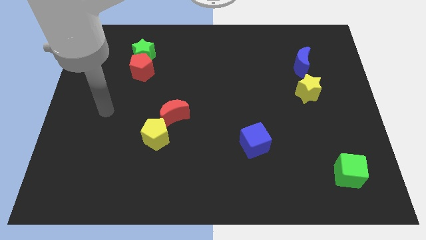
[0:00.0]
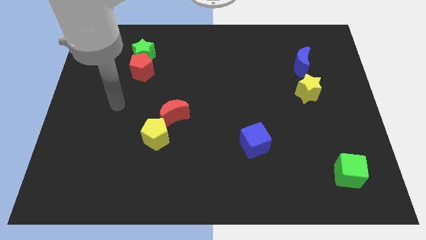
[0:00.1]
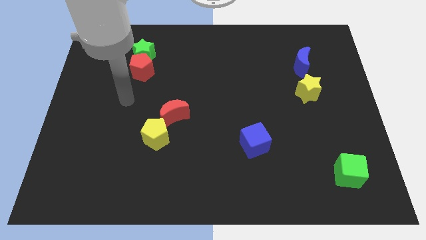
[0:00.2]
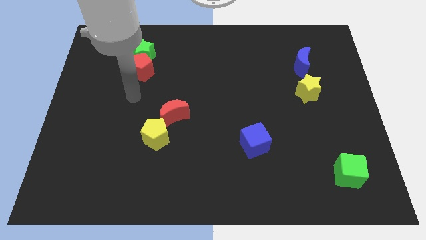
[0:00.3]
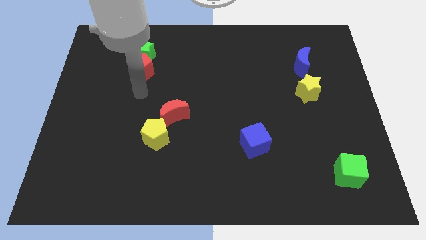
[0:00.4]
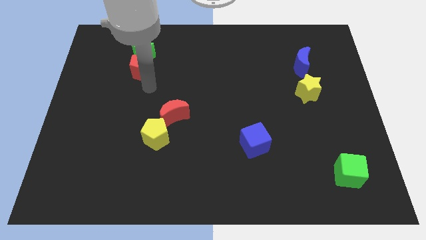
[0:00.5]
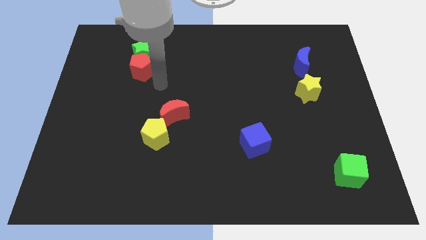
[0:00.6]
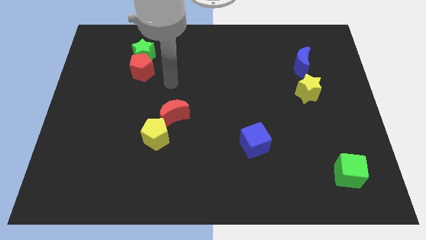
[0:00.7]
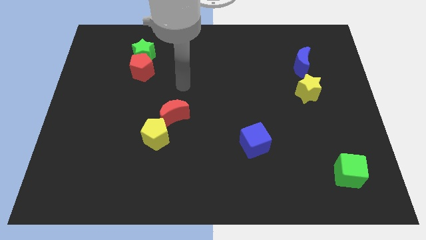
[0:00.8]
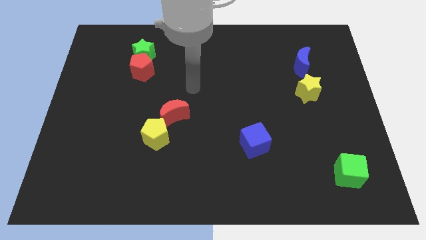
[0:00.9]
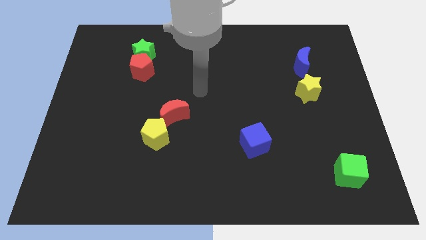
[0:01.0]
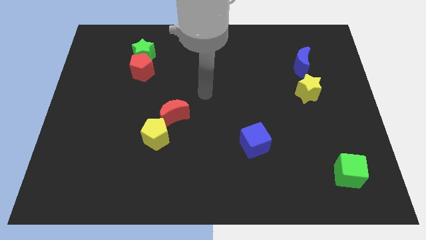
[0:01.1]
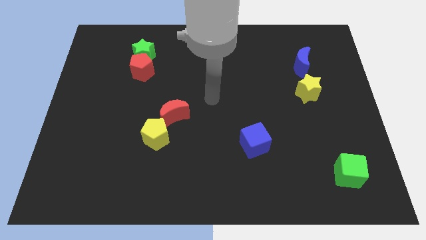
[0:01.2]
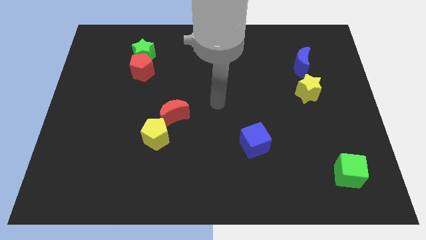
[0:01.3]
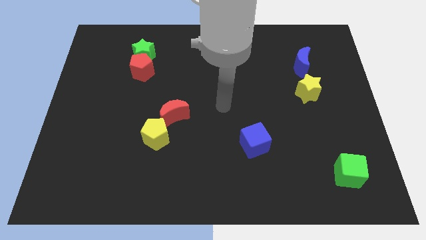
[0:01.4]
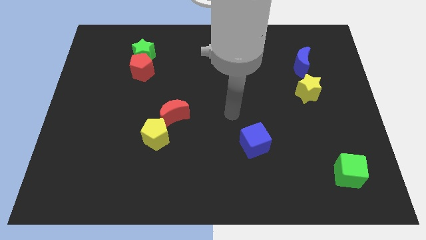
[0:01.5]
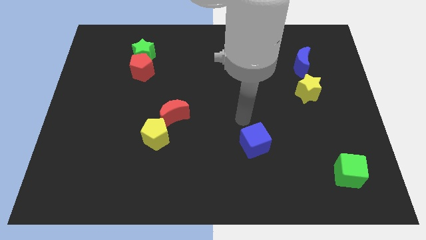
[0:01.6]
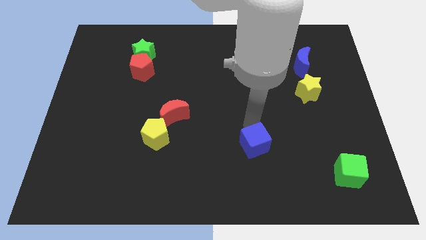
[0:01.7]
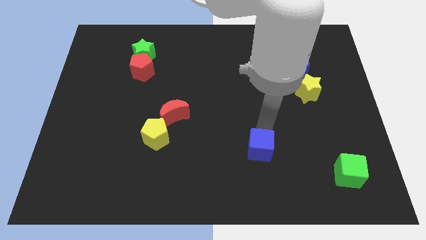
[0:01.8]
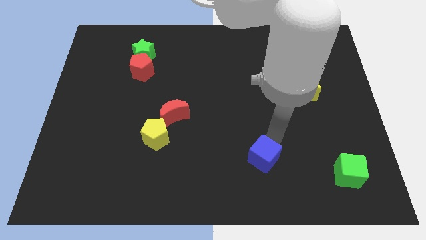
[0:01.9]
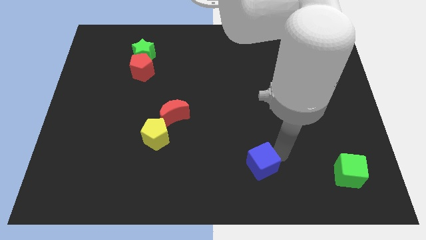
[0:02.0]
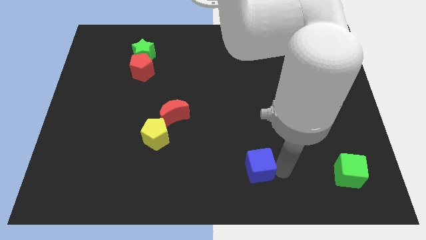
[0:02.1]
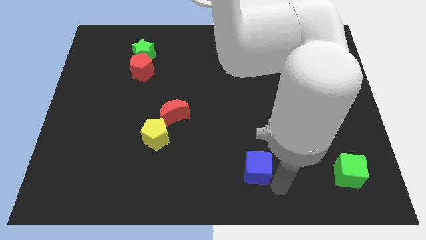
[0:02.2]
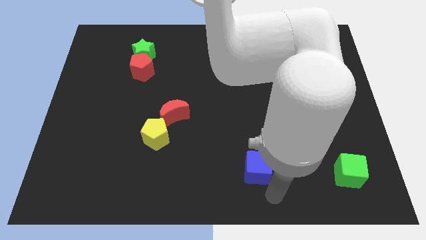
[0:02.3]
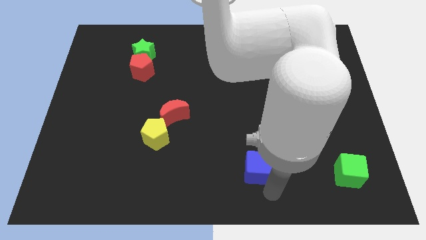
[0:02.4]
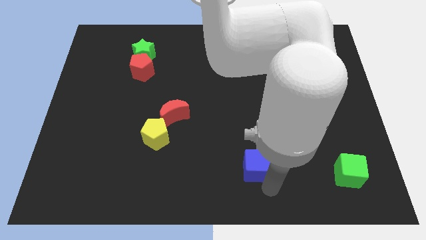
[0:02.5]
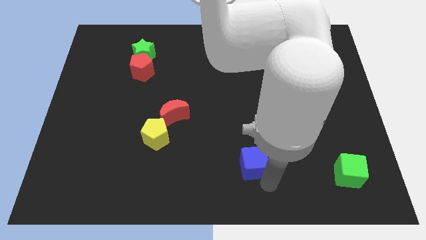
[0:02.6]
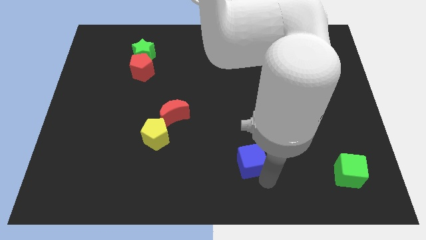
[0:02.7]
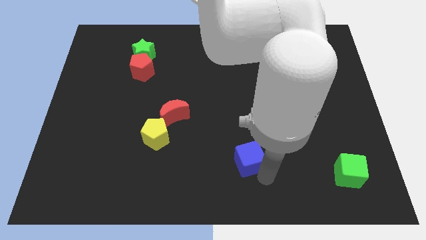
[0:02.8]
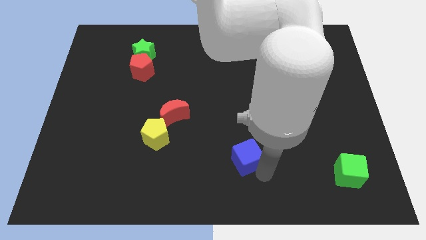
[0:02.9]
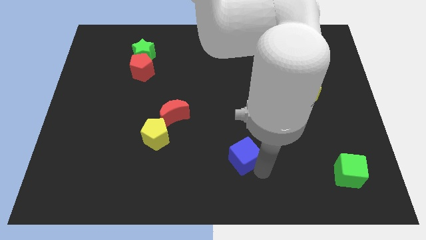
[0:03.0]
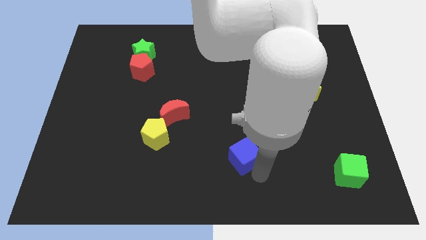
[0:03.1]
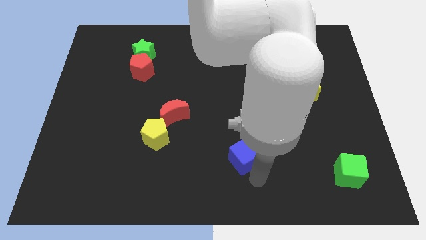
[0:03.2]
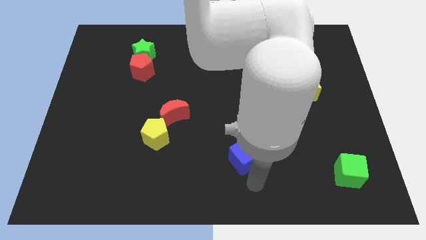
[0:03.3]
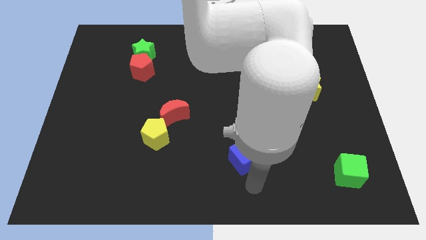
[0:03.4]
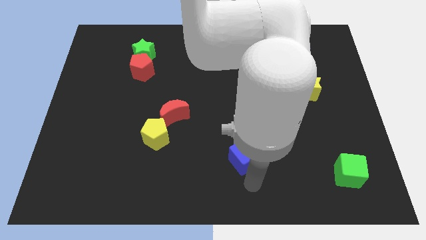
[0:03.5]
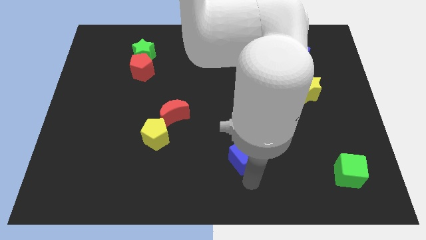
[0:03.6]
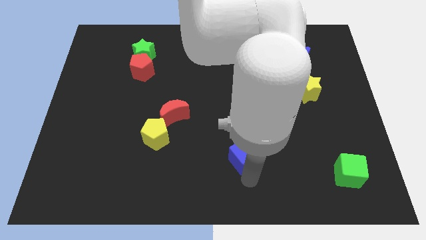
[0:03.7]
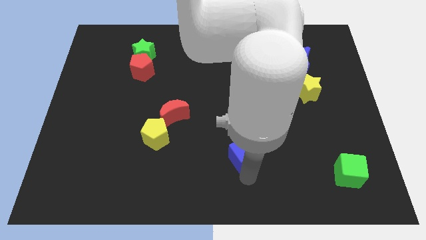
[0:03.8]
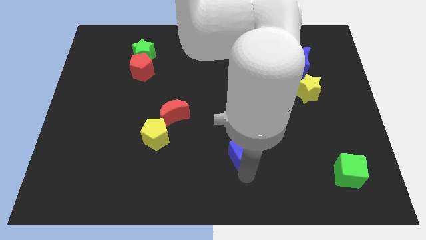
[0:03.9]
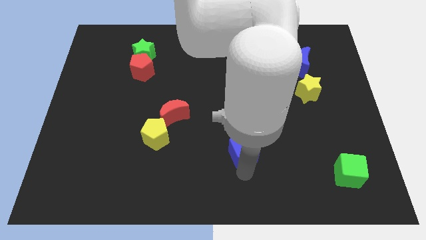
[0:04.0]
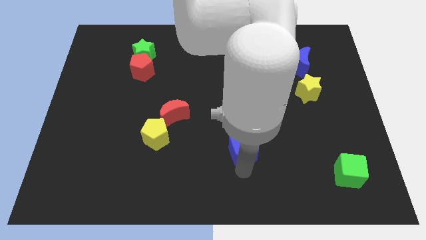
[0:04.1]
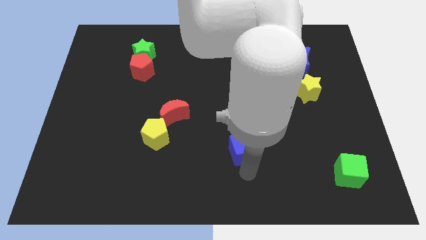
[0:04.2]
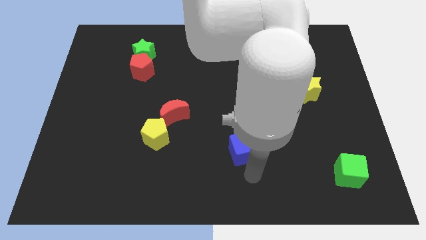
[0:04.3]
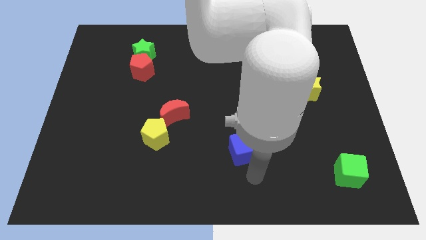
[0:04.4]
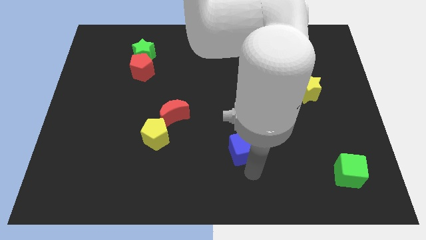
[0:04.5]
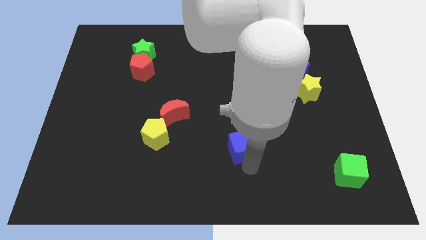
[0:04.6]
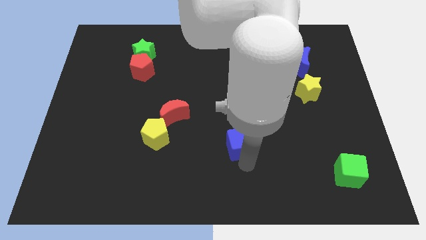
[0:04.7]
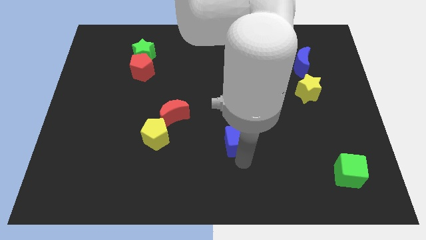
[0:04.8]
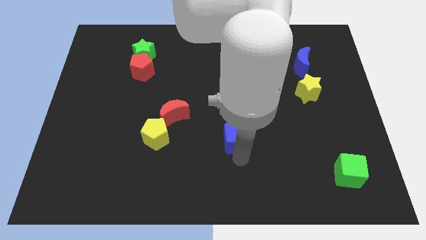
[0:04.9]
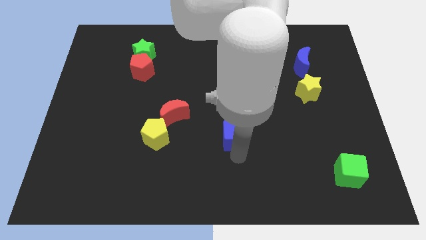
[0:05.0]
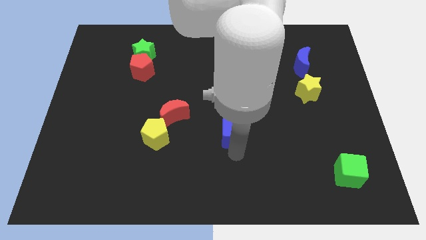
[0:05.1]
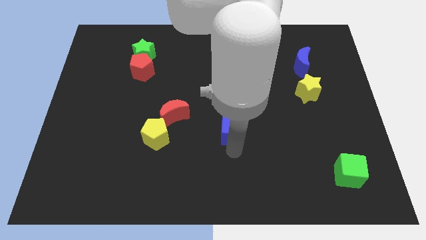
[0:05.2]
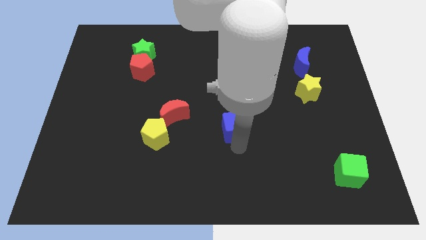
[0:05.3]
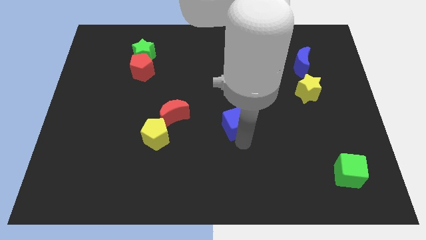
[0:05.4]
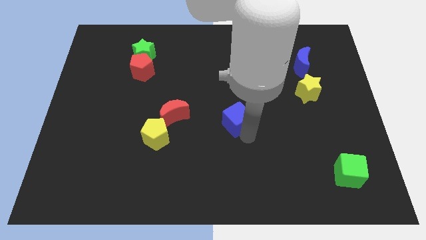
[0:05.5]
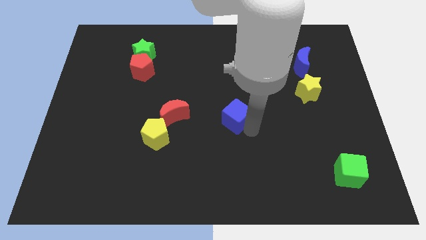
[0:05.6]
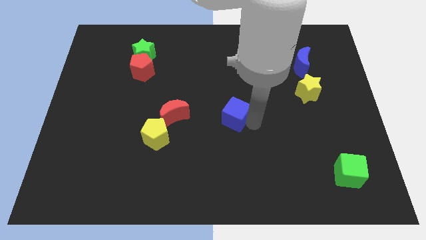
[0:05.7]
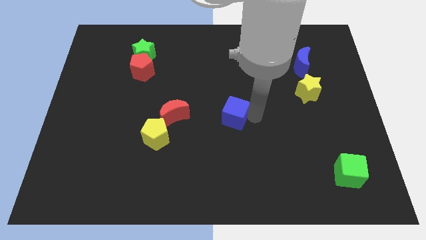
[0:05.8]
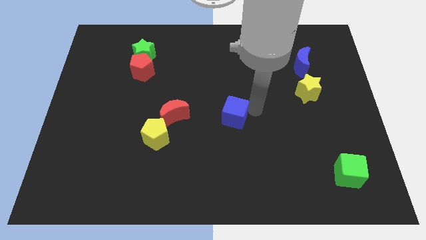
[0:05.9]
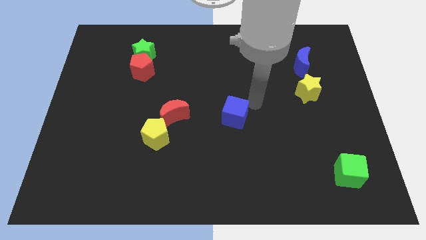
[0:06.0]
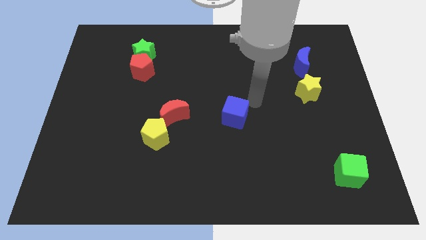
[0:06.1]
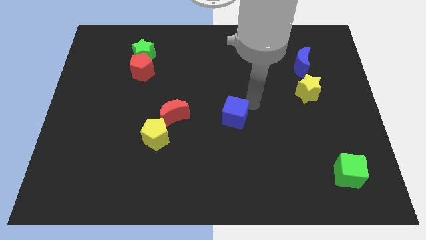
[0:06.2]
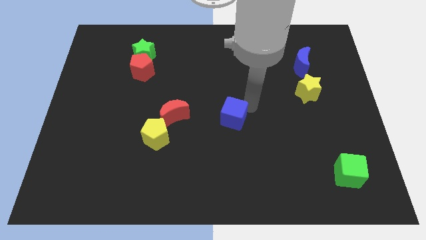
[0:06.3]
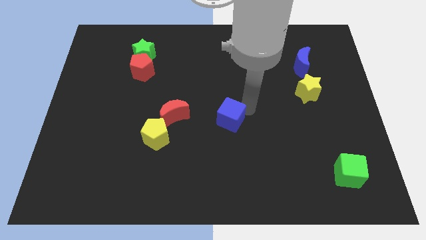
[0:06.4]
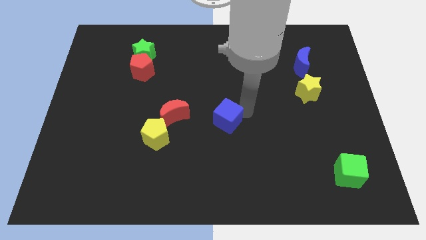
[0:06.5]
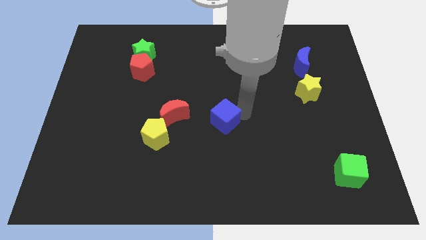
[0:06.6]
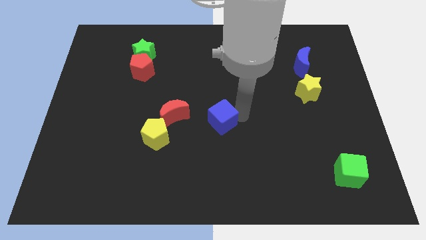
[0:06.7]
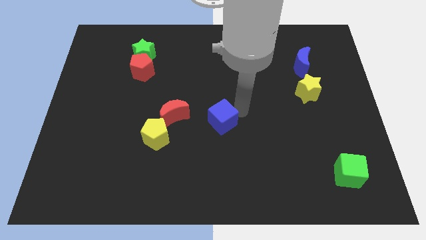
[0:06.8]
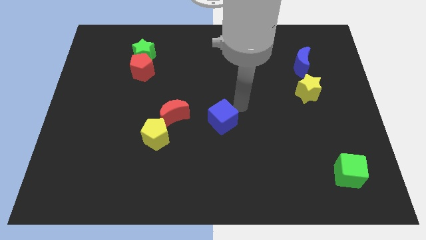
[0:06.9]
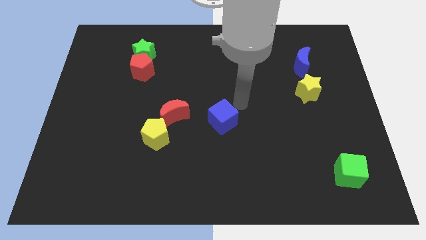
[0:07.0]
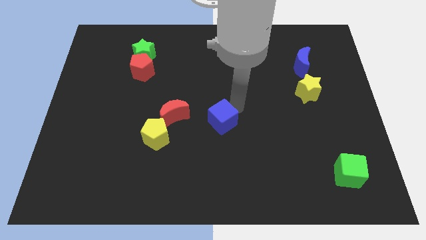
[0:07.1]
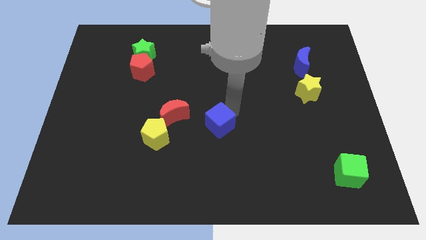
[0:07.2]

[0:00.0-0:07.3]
slide the blue cube just right of the yellow pentagon
